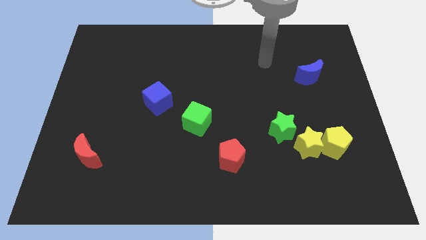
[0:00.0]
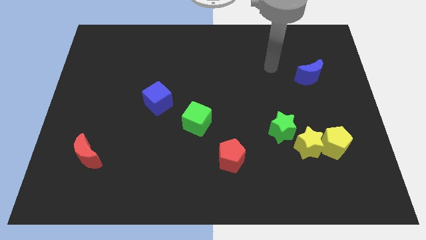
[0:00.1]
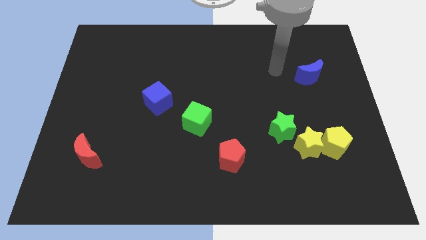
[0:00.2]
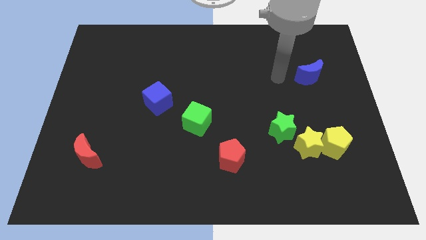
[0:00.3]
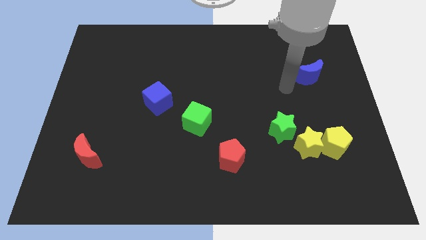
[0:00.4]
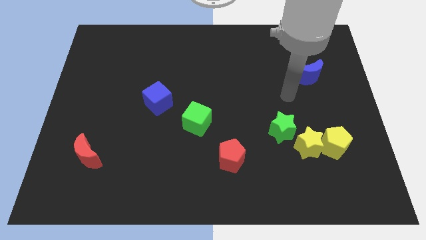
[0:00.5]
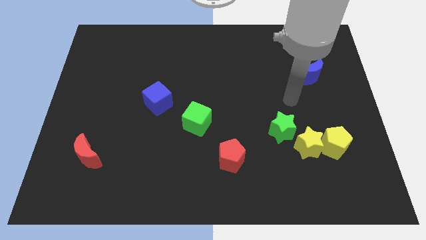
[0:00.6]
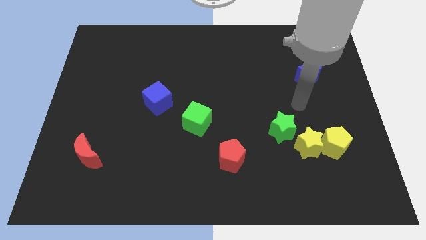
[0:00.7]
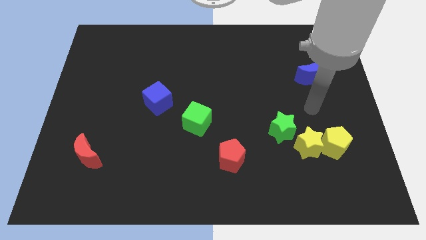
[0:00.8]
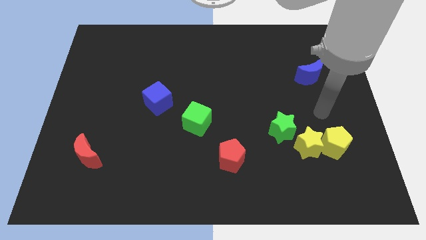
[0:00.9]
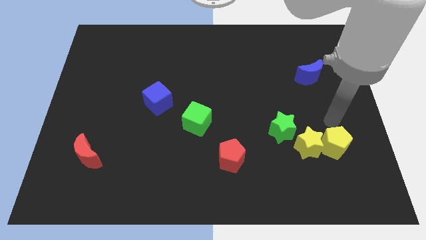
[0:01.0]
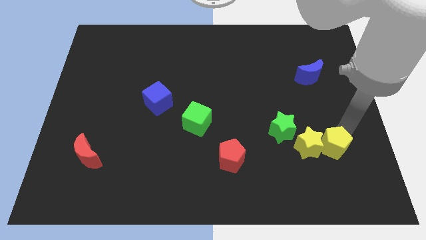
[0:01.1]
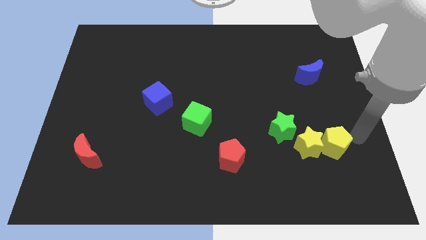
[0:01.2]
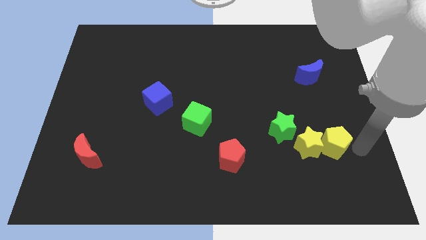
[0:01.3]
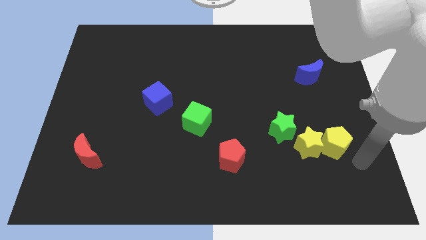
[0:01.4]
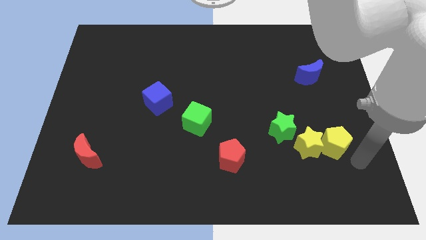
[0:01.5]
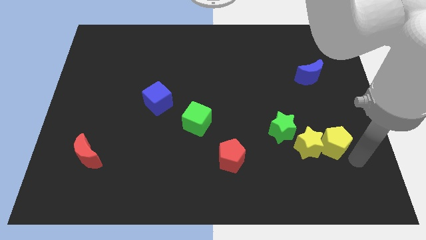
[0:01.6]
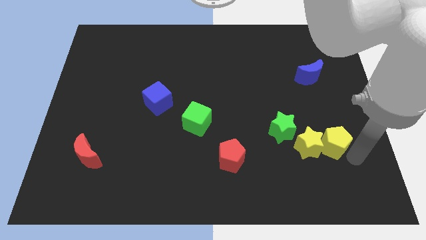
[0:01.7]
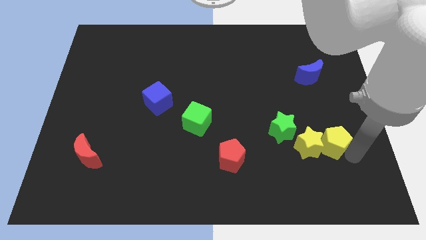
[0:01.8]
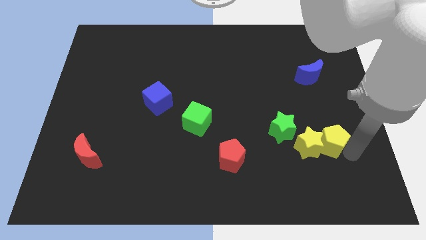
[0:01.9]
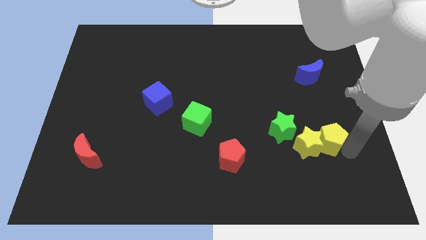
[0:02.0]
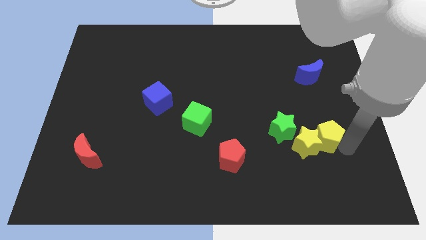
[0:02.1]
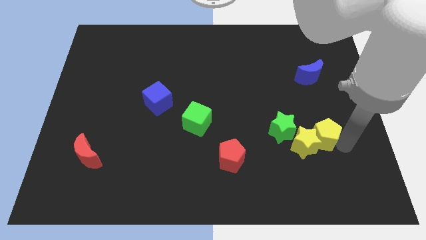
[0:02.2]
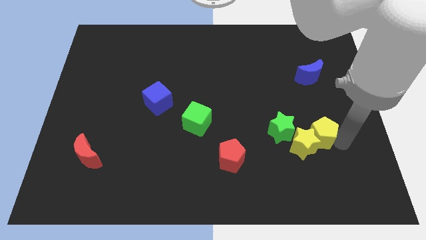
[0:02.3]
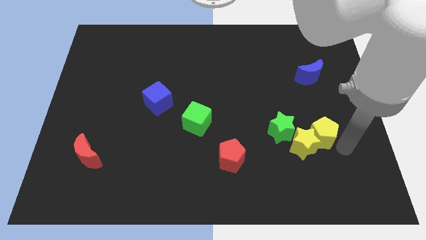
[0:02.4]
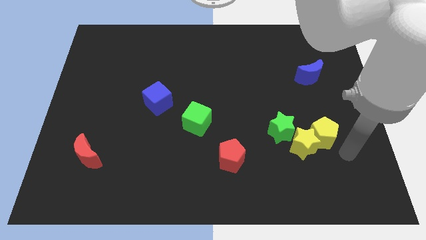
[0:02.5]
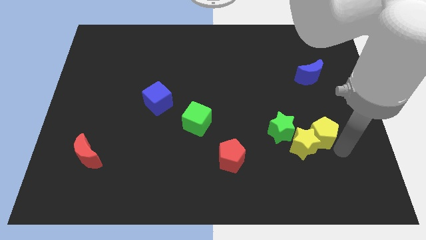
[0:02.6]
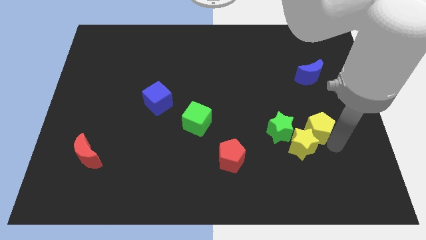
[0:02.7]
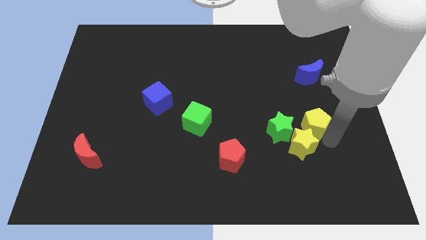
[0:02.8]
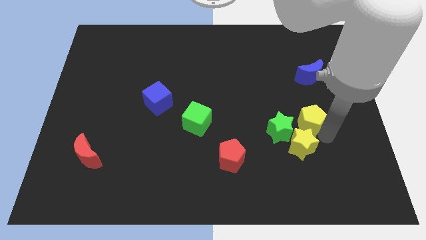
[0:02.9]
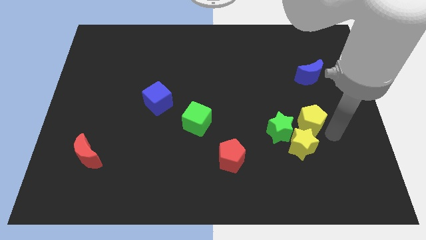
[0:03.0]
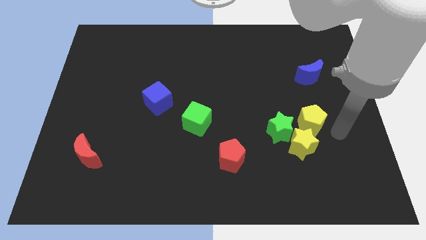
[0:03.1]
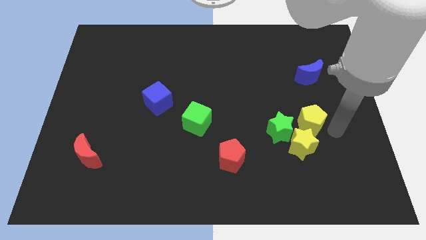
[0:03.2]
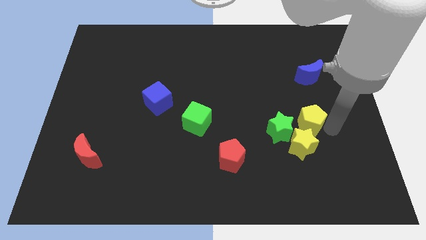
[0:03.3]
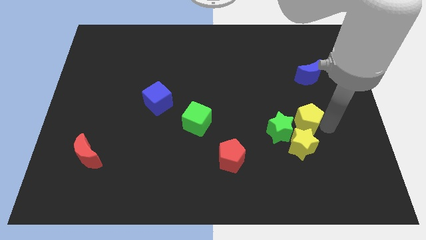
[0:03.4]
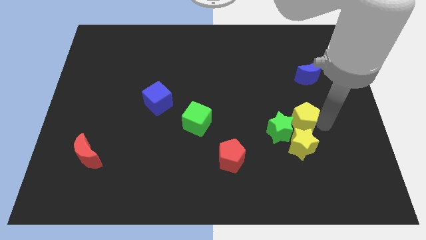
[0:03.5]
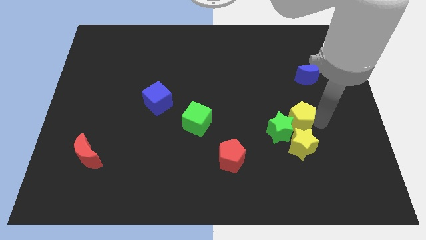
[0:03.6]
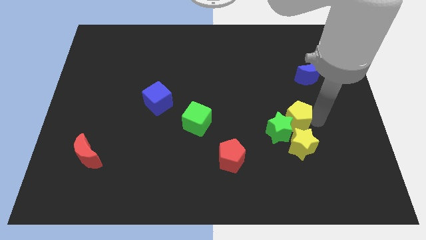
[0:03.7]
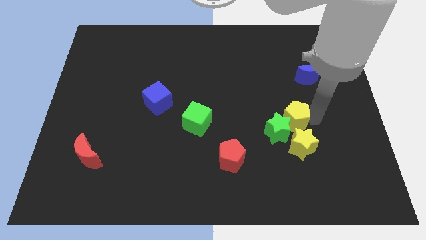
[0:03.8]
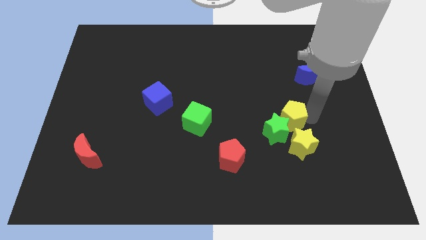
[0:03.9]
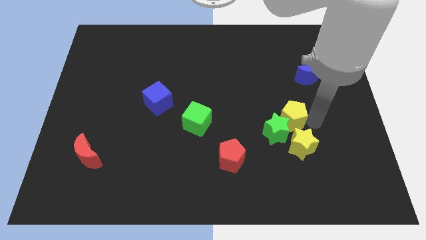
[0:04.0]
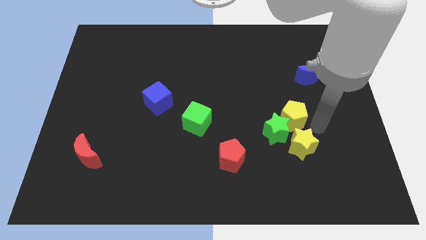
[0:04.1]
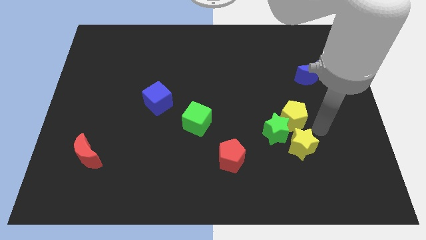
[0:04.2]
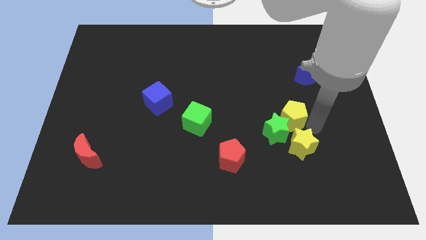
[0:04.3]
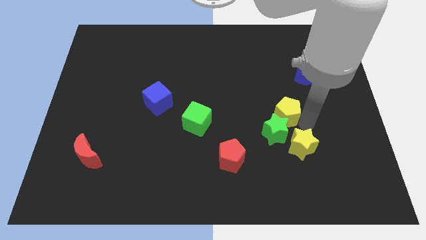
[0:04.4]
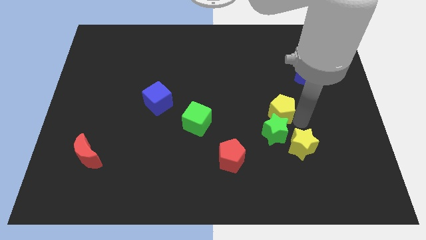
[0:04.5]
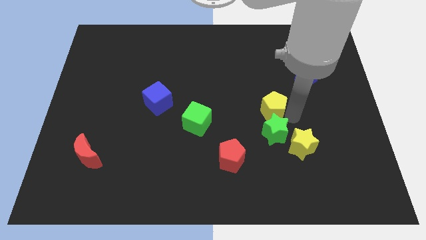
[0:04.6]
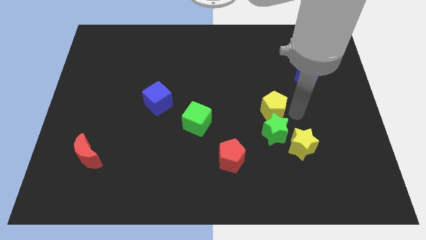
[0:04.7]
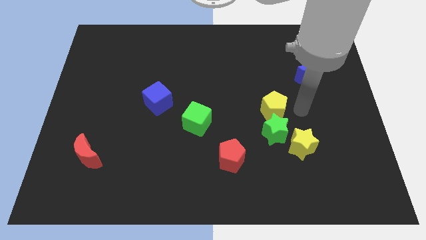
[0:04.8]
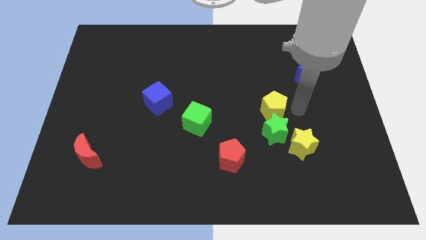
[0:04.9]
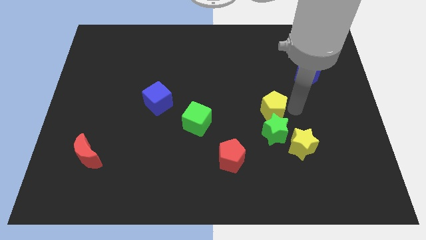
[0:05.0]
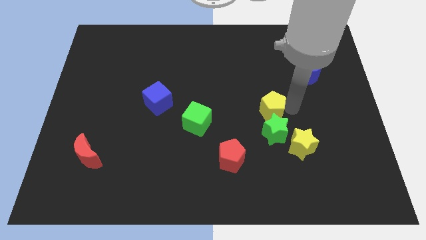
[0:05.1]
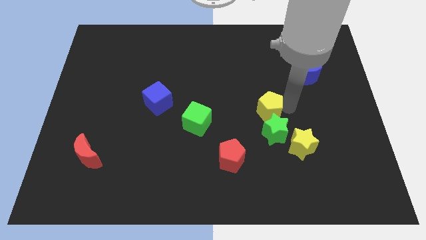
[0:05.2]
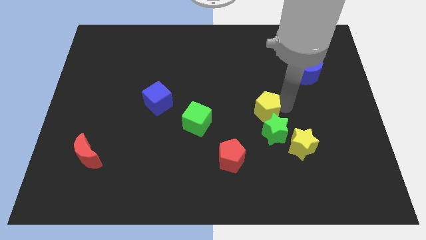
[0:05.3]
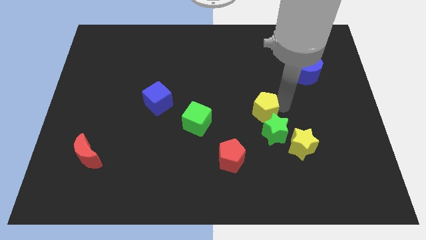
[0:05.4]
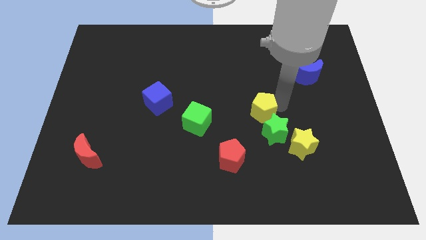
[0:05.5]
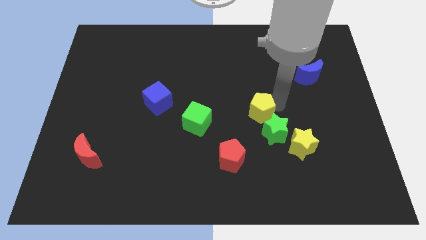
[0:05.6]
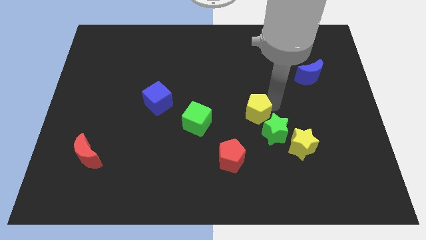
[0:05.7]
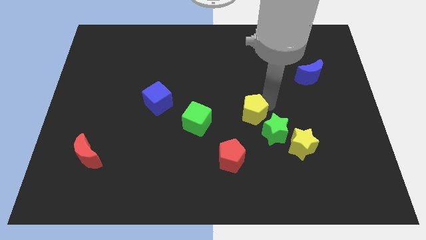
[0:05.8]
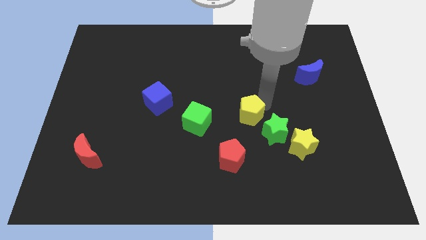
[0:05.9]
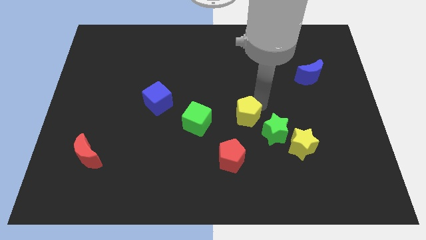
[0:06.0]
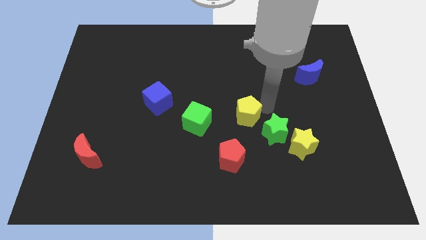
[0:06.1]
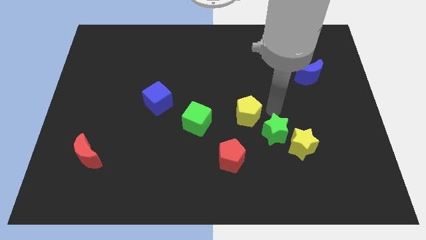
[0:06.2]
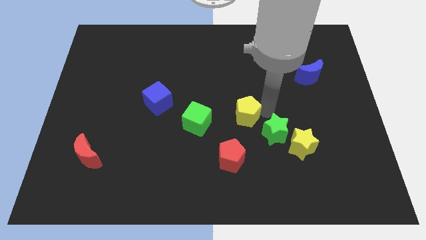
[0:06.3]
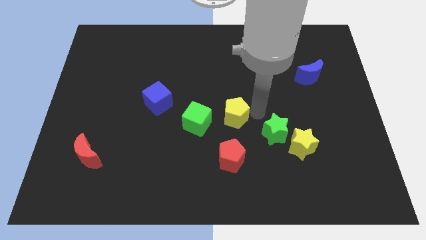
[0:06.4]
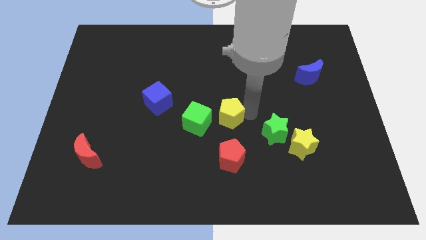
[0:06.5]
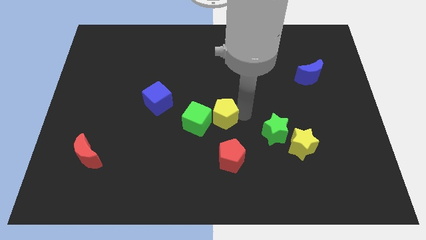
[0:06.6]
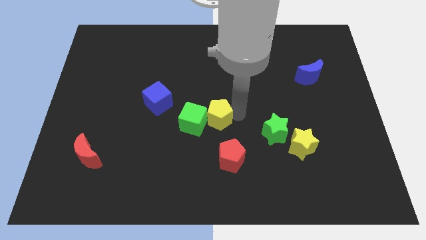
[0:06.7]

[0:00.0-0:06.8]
move the yellow pentagon to the green cube

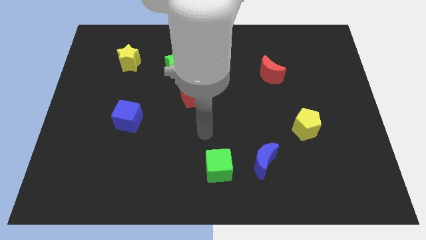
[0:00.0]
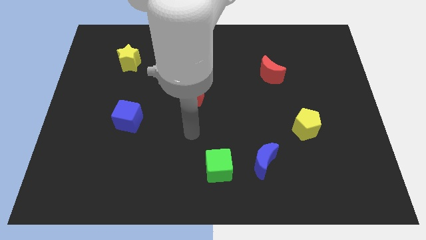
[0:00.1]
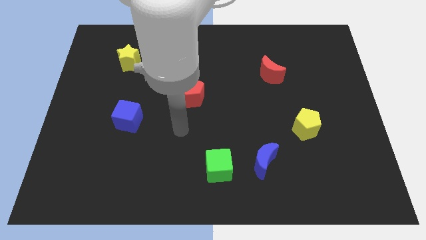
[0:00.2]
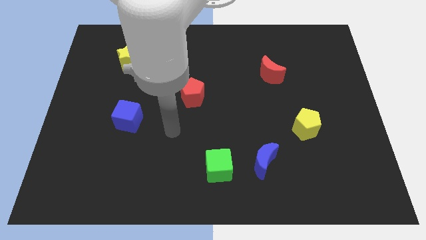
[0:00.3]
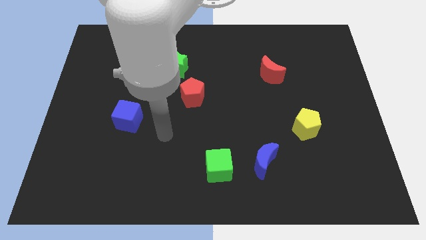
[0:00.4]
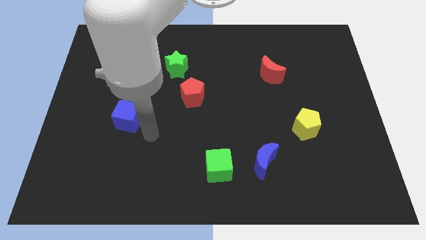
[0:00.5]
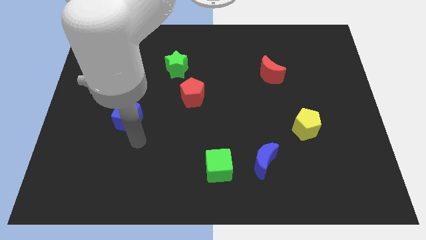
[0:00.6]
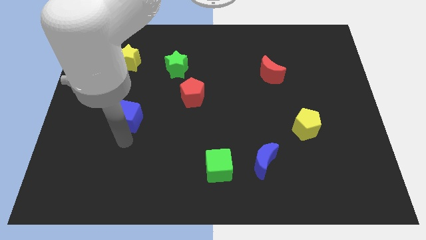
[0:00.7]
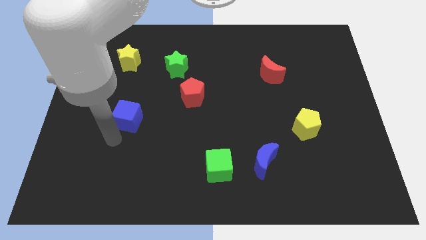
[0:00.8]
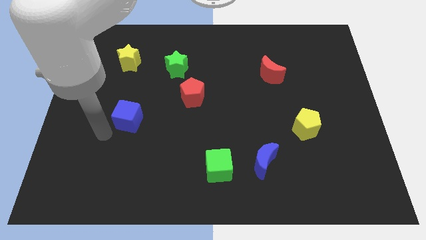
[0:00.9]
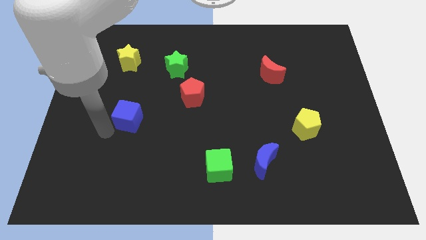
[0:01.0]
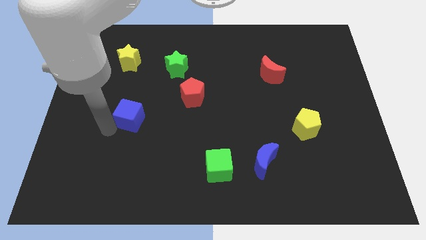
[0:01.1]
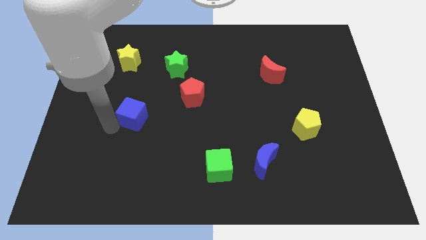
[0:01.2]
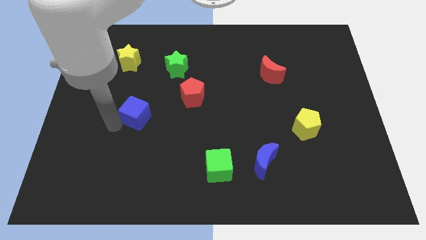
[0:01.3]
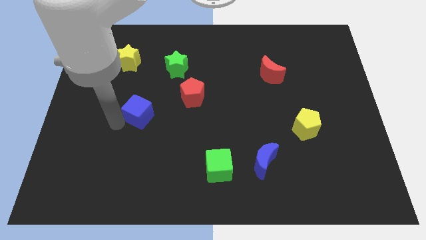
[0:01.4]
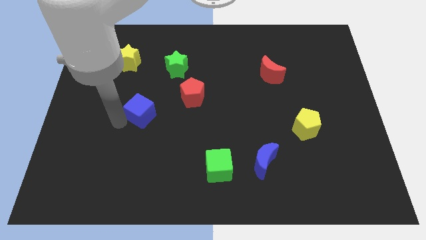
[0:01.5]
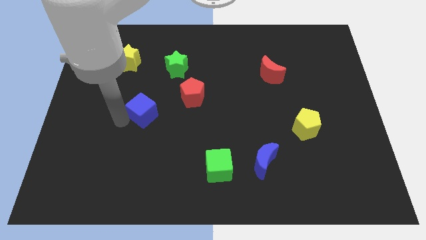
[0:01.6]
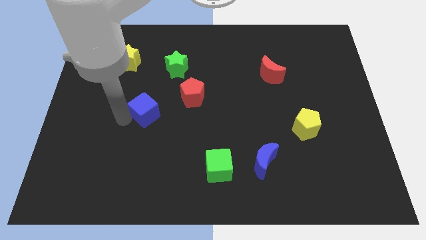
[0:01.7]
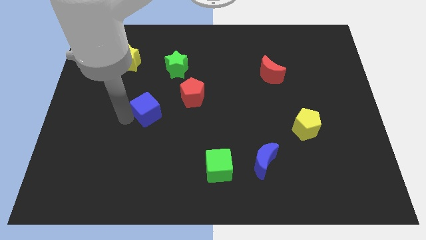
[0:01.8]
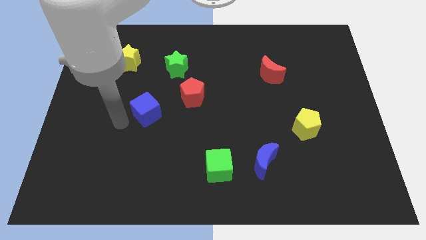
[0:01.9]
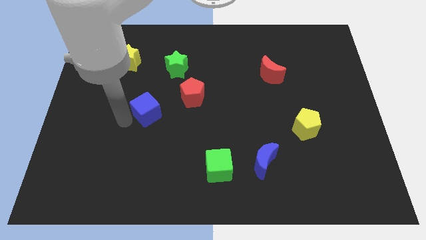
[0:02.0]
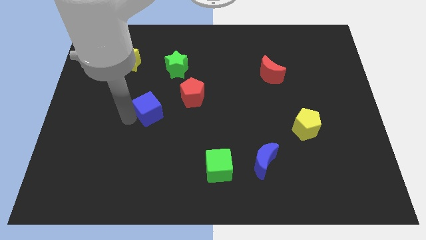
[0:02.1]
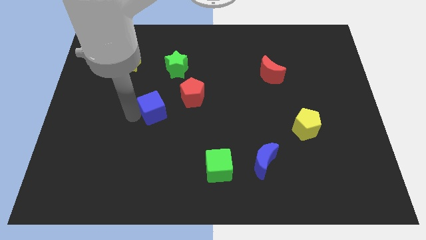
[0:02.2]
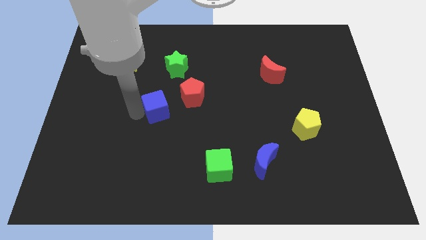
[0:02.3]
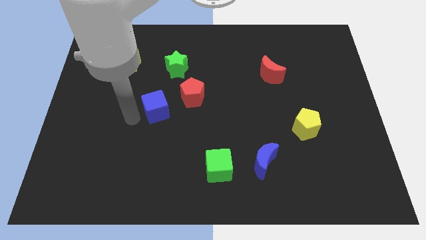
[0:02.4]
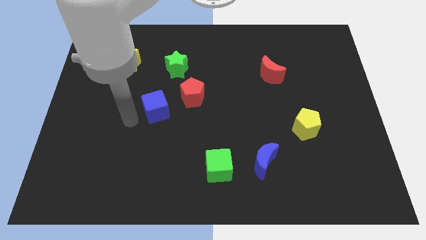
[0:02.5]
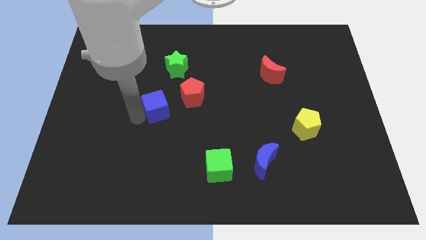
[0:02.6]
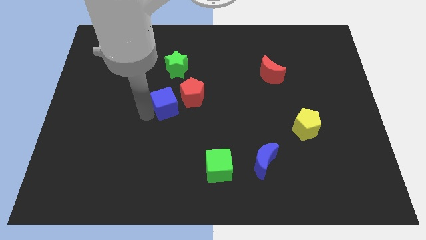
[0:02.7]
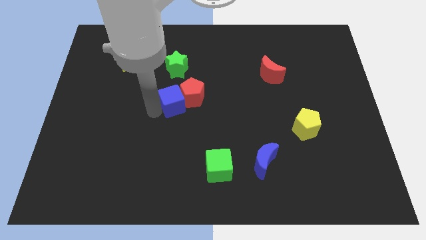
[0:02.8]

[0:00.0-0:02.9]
push the blue cube to the red pentagon
